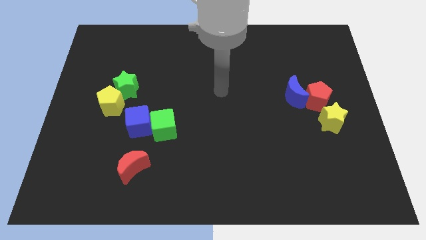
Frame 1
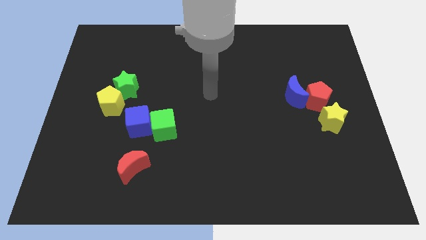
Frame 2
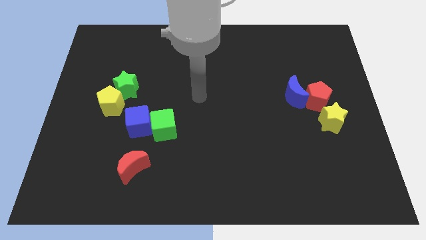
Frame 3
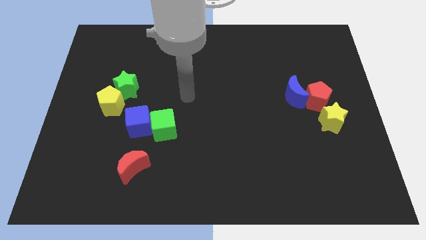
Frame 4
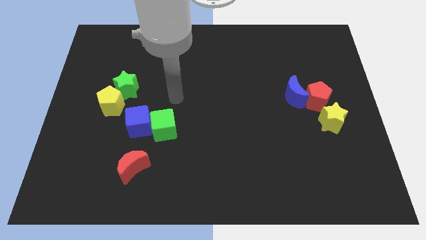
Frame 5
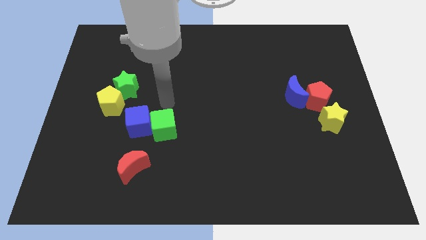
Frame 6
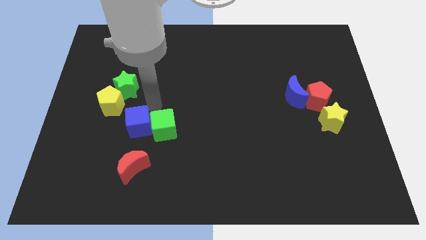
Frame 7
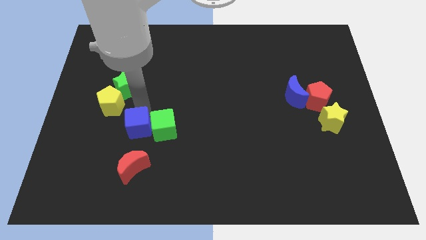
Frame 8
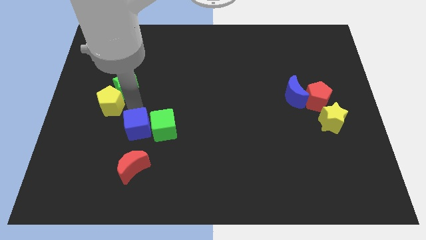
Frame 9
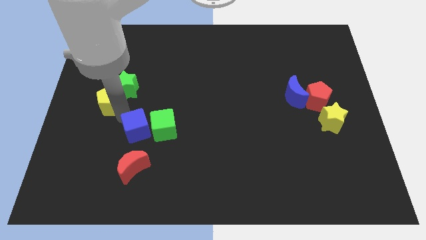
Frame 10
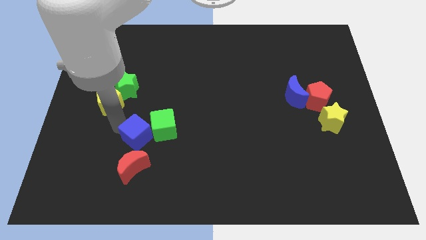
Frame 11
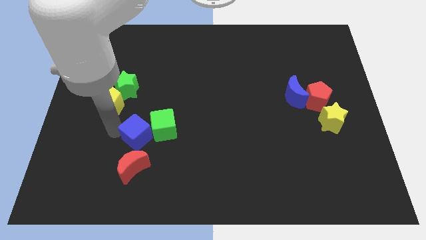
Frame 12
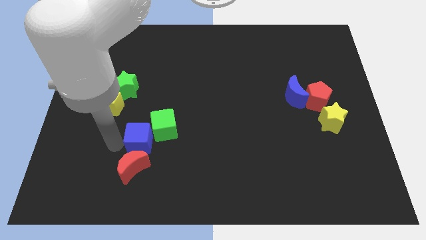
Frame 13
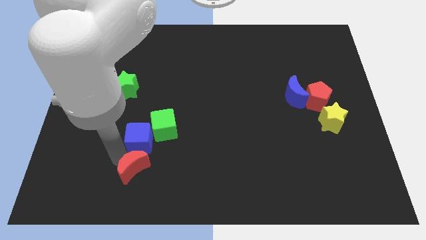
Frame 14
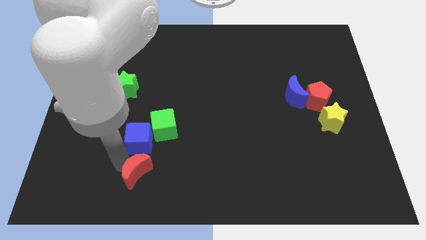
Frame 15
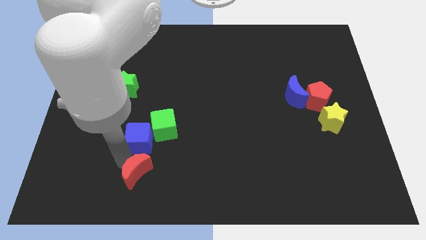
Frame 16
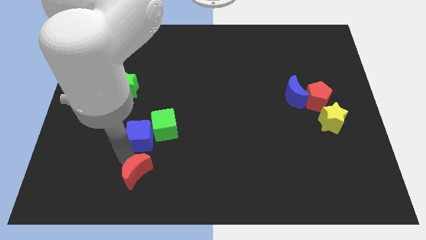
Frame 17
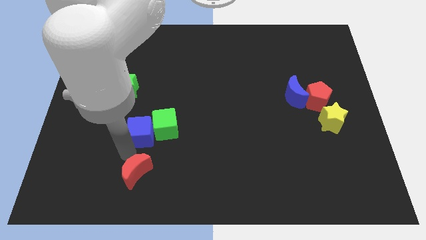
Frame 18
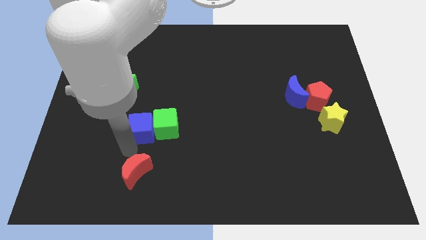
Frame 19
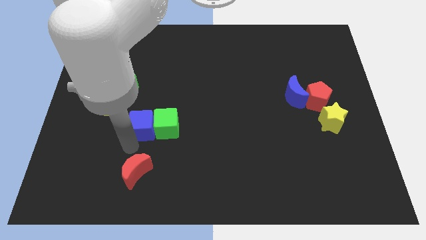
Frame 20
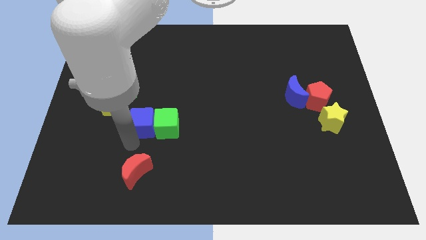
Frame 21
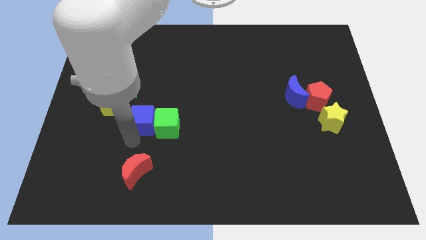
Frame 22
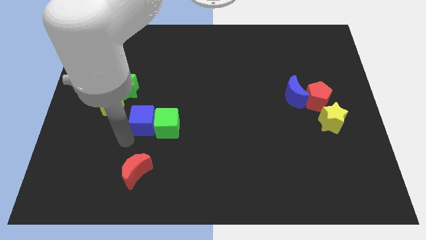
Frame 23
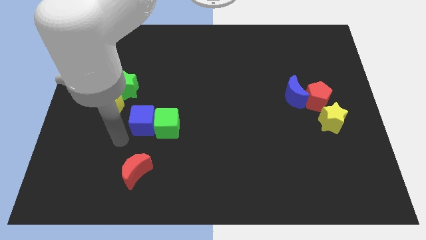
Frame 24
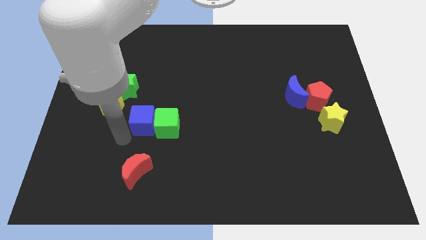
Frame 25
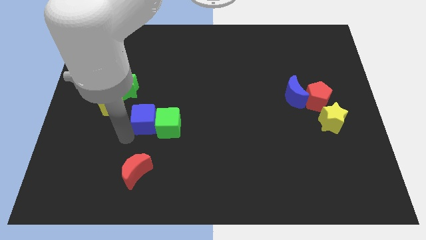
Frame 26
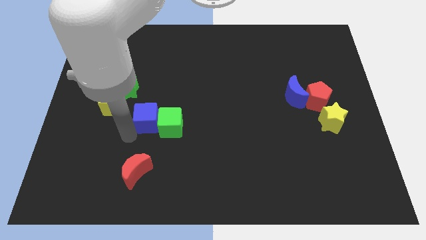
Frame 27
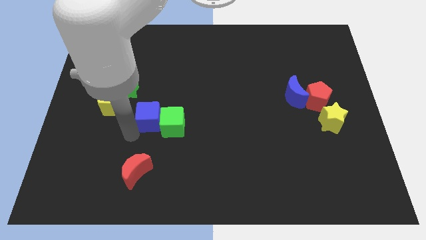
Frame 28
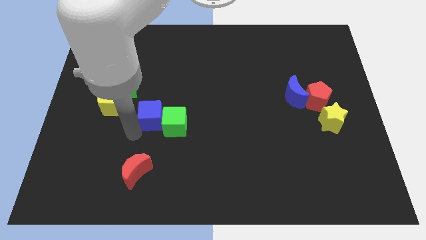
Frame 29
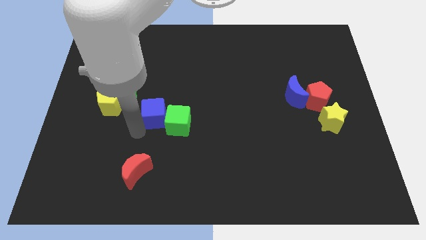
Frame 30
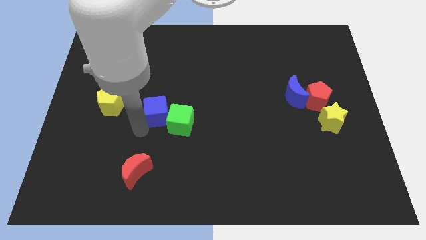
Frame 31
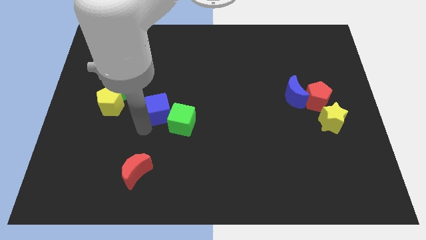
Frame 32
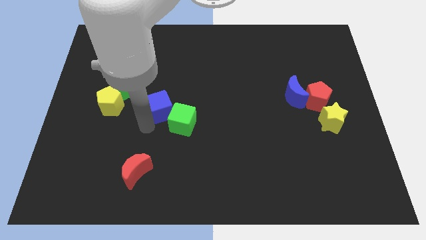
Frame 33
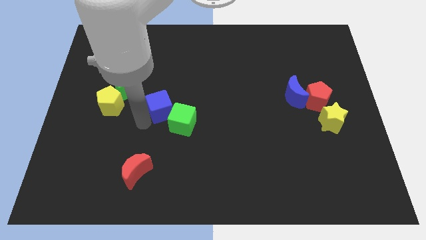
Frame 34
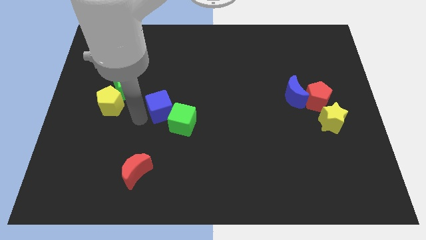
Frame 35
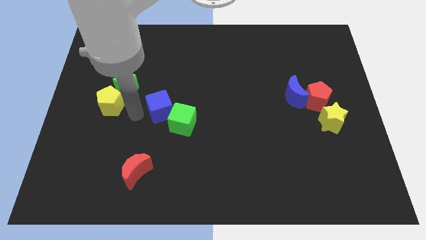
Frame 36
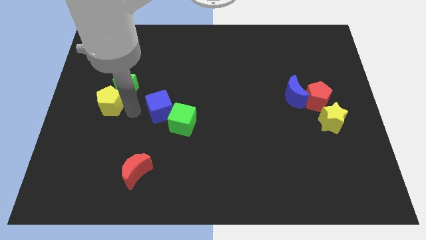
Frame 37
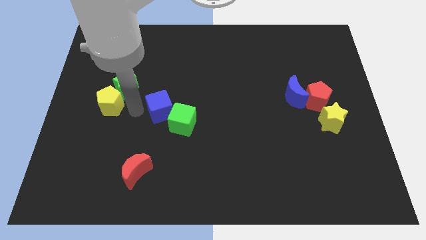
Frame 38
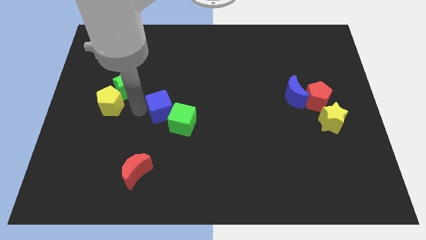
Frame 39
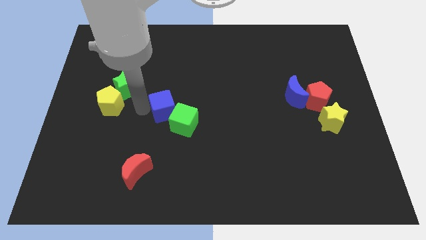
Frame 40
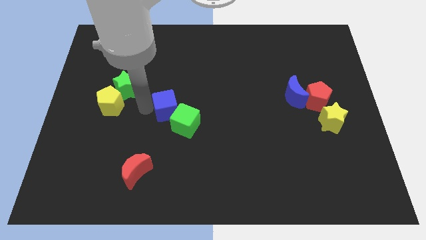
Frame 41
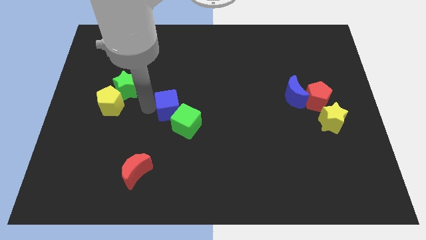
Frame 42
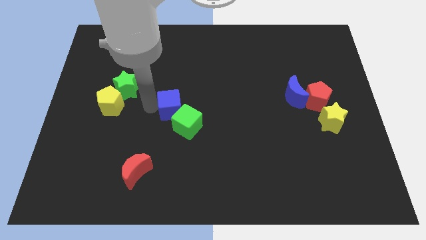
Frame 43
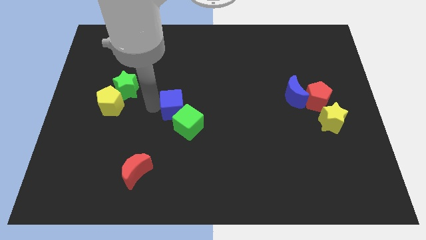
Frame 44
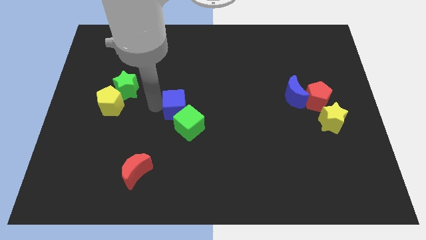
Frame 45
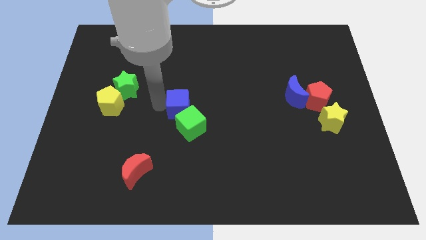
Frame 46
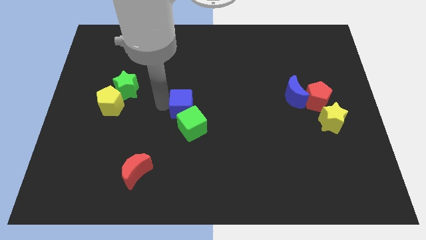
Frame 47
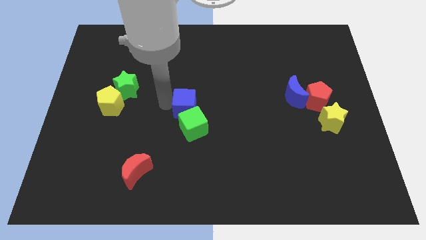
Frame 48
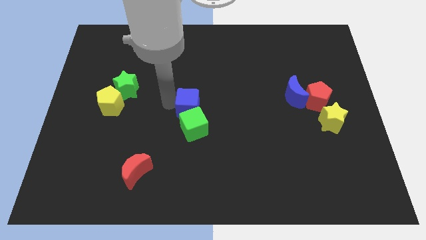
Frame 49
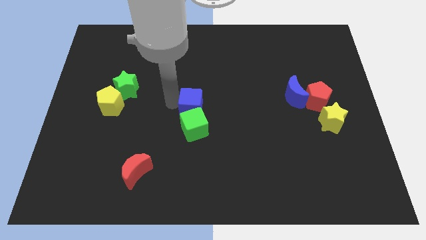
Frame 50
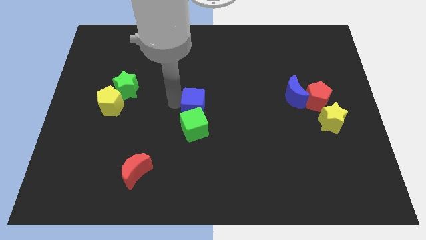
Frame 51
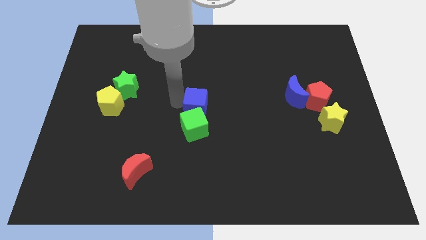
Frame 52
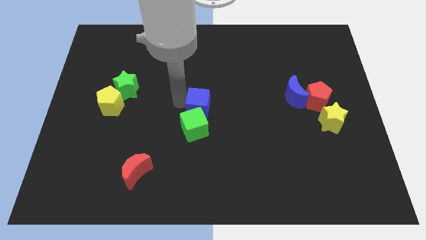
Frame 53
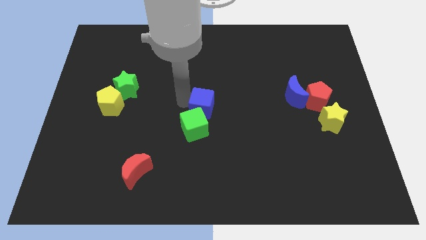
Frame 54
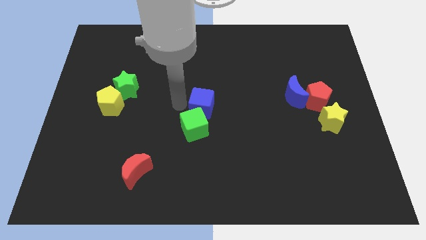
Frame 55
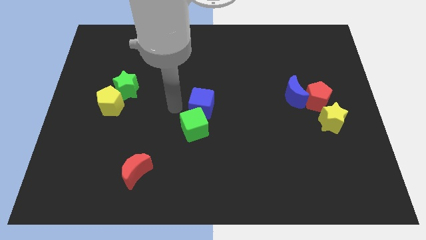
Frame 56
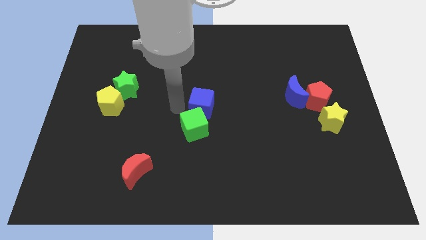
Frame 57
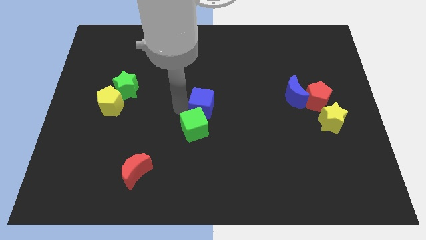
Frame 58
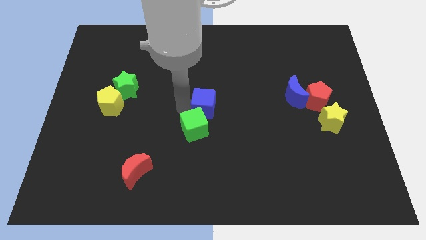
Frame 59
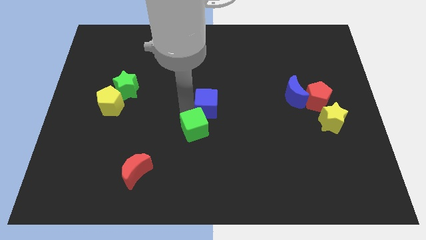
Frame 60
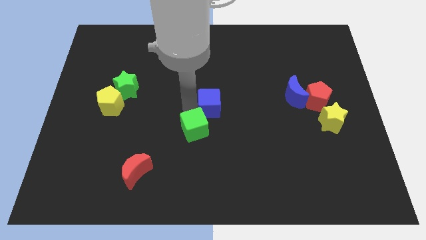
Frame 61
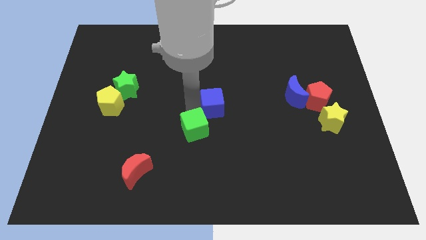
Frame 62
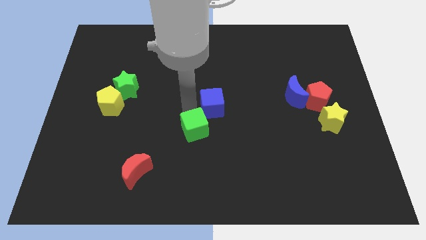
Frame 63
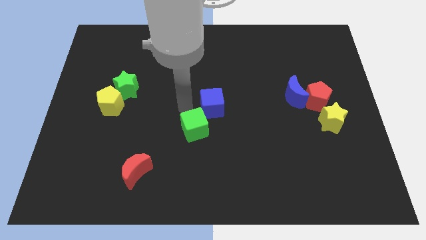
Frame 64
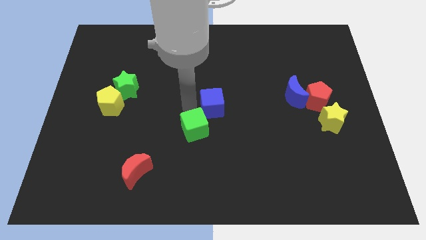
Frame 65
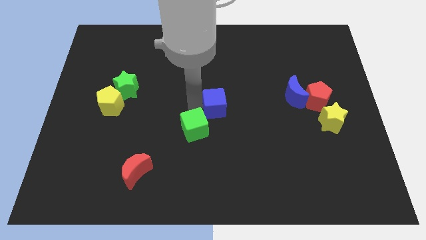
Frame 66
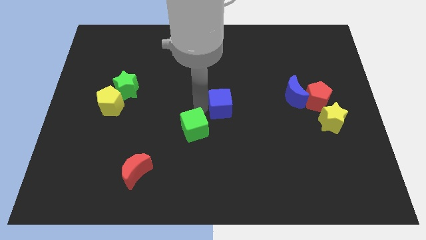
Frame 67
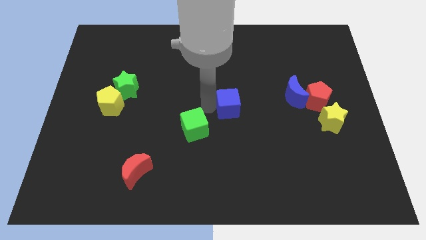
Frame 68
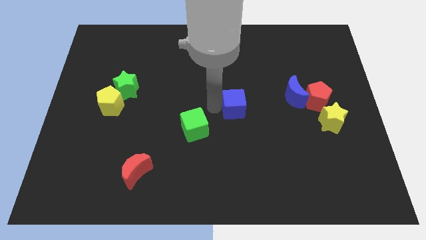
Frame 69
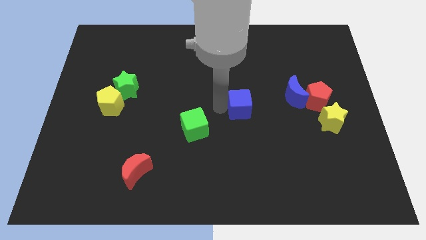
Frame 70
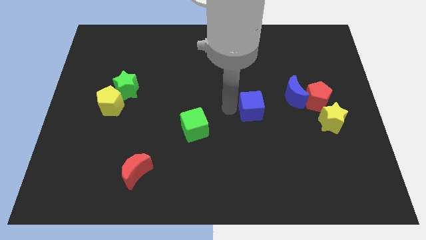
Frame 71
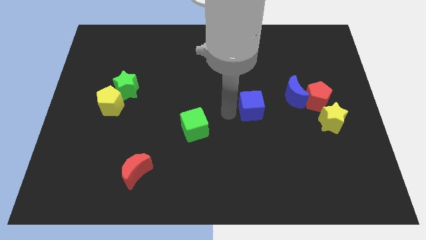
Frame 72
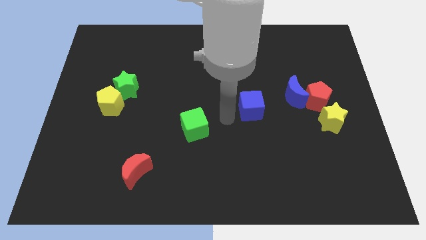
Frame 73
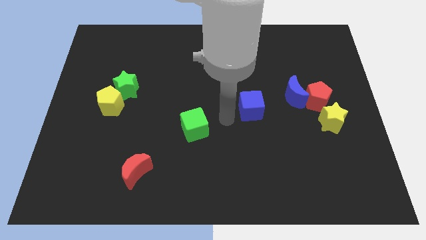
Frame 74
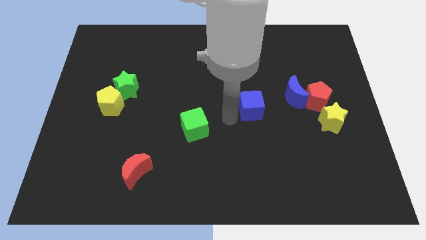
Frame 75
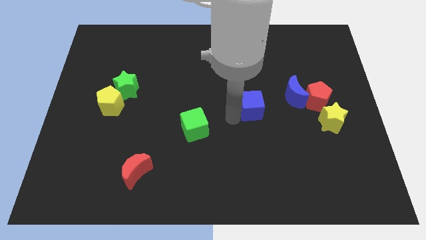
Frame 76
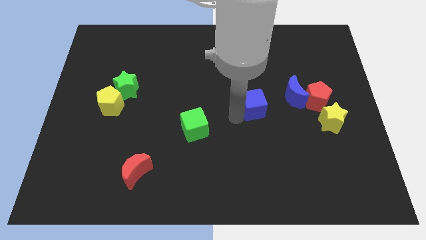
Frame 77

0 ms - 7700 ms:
put the blue cube to the left side of the red pentagon
